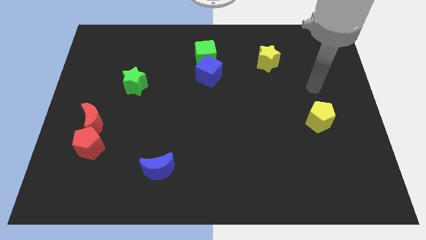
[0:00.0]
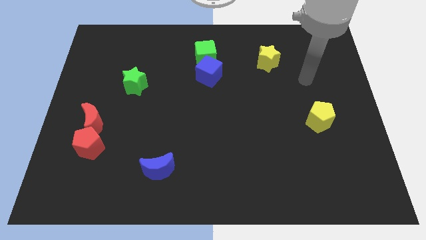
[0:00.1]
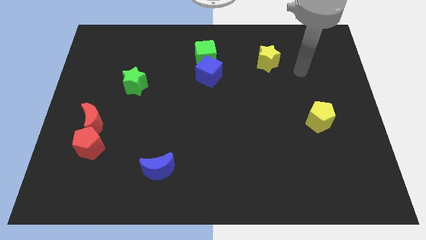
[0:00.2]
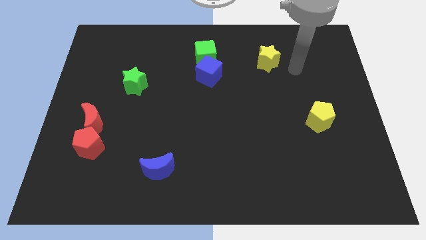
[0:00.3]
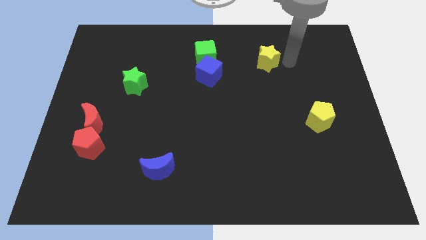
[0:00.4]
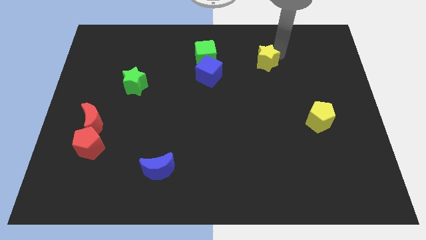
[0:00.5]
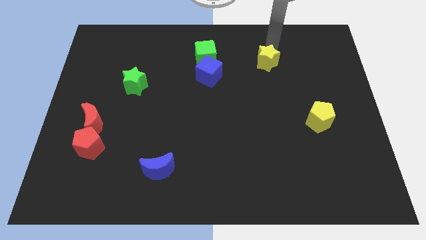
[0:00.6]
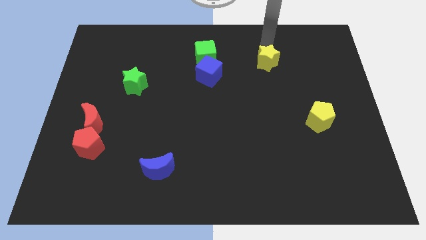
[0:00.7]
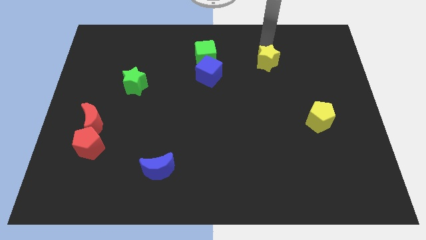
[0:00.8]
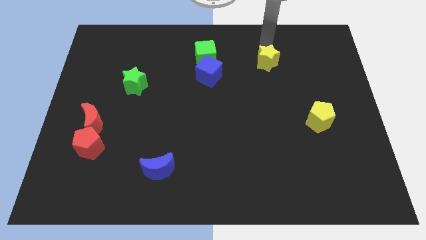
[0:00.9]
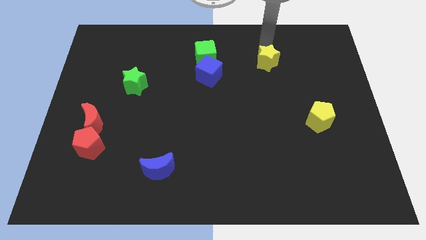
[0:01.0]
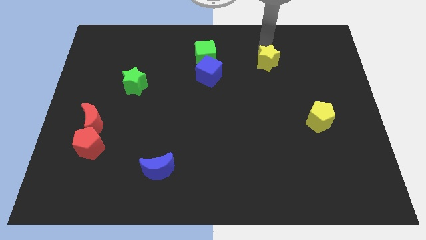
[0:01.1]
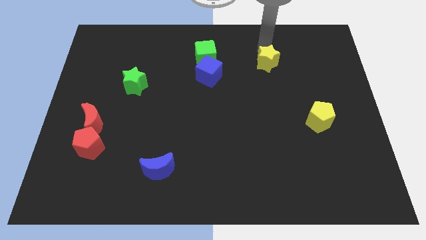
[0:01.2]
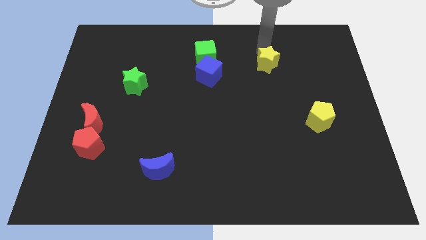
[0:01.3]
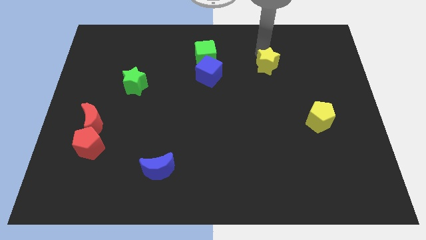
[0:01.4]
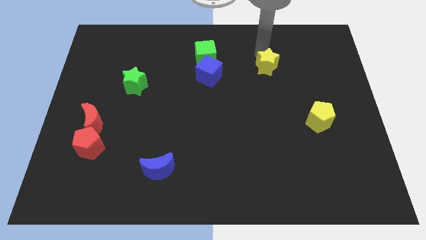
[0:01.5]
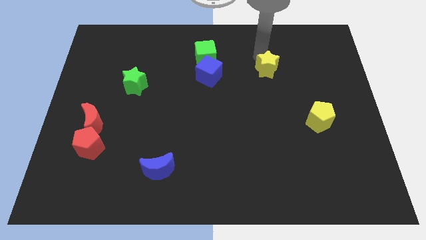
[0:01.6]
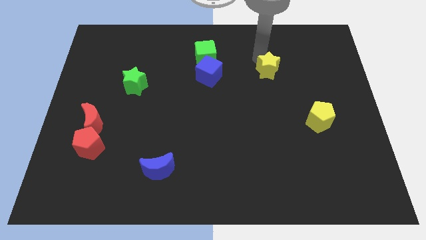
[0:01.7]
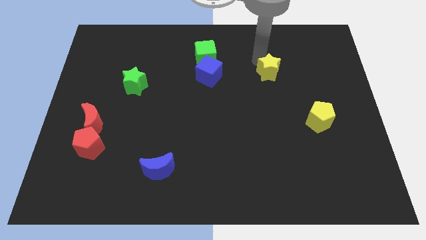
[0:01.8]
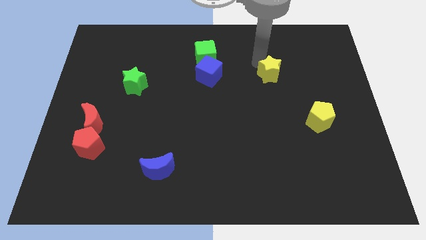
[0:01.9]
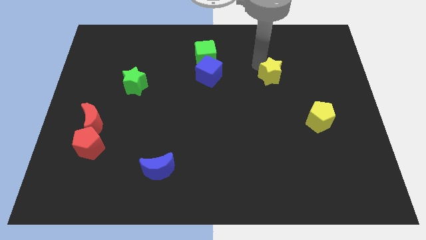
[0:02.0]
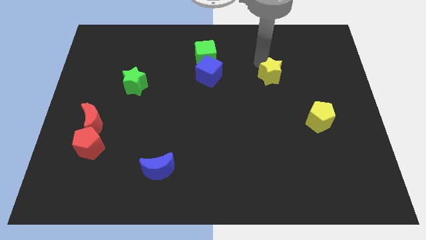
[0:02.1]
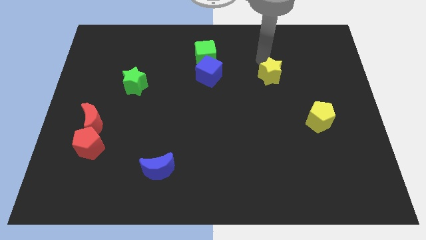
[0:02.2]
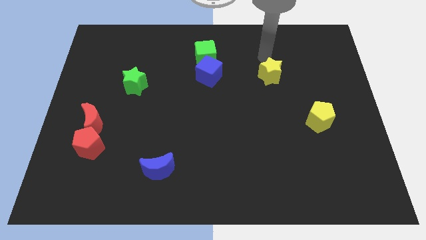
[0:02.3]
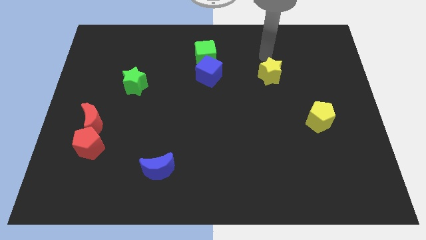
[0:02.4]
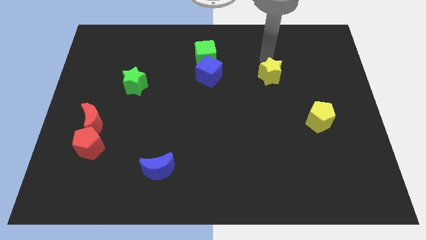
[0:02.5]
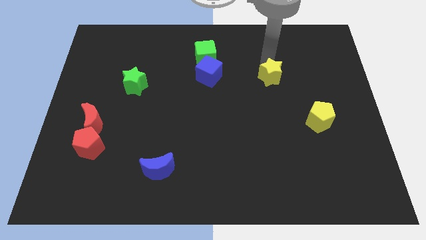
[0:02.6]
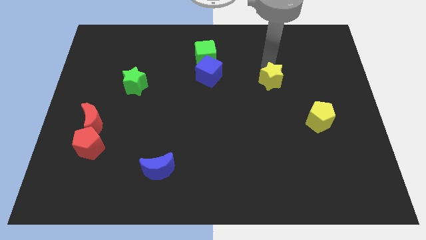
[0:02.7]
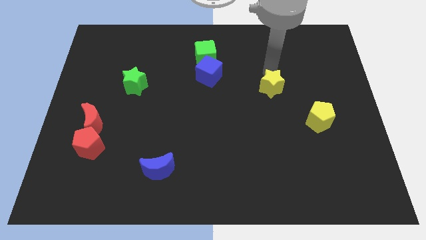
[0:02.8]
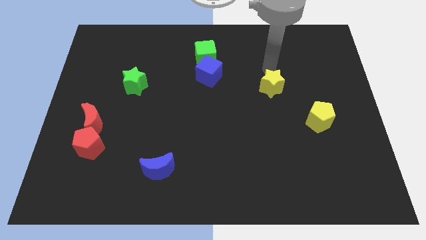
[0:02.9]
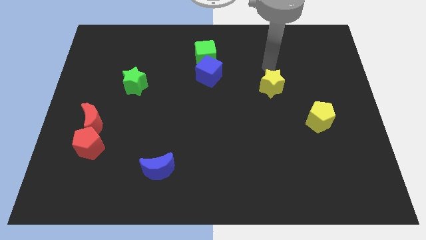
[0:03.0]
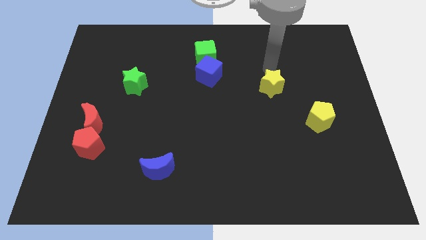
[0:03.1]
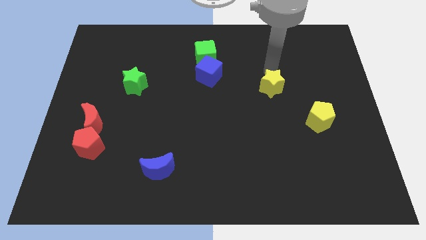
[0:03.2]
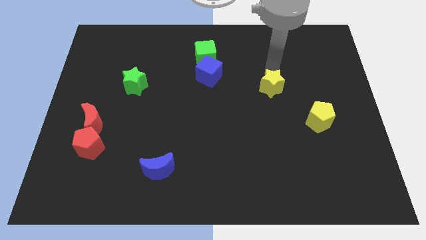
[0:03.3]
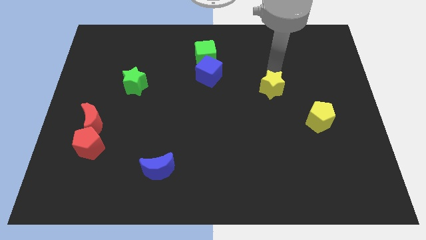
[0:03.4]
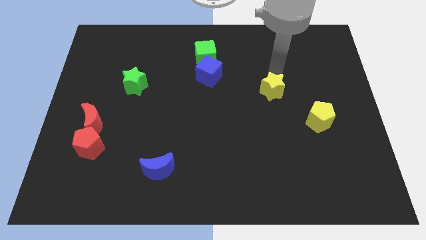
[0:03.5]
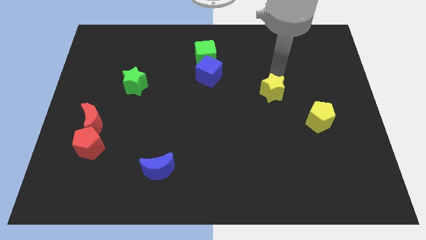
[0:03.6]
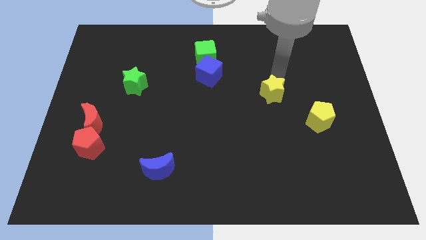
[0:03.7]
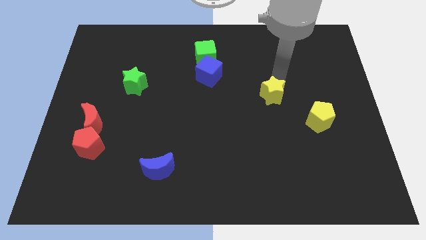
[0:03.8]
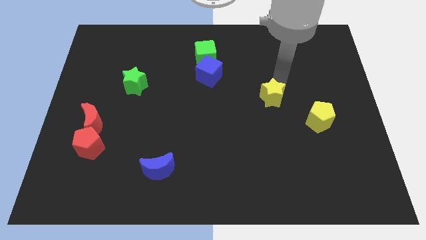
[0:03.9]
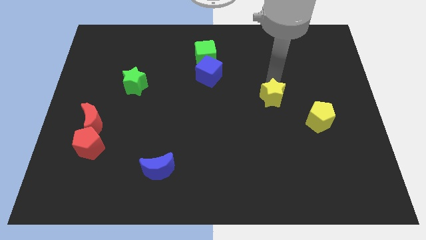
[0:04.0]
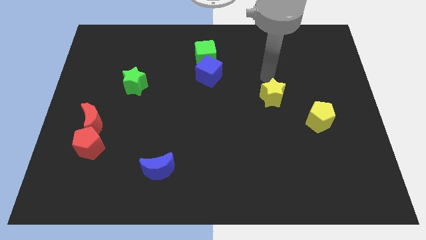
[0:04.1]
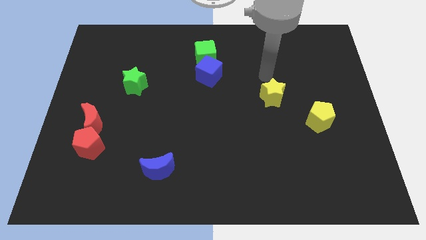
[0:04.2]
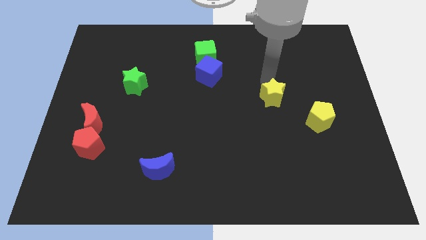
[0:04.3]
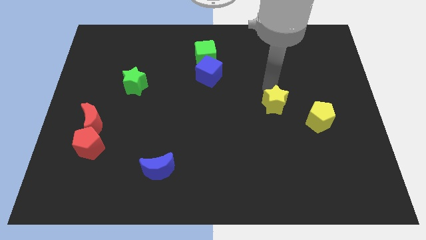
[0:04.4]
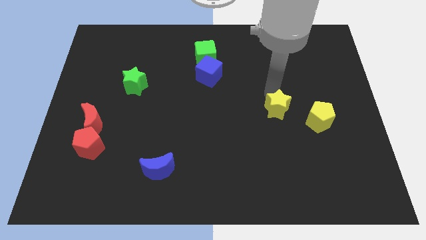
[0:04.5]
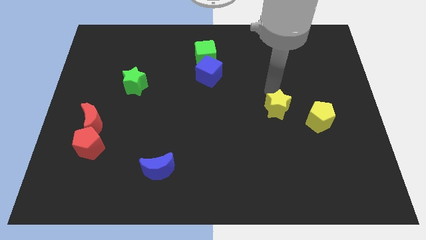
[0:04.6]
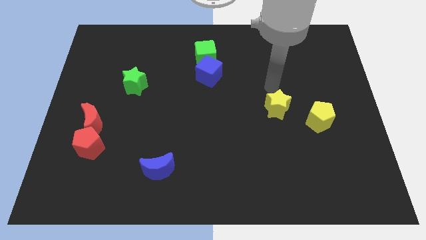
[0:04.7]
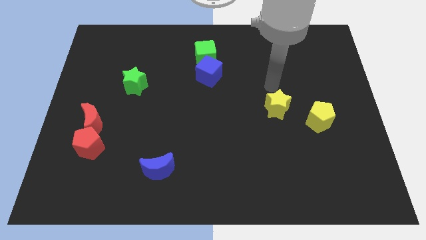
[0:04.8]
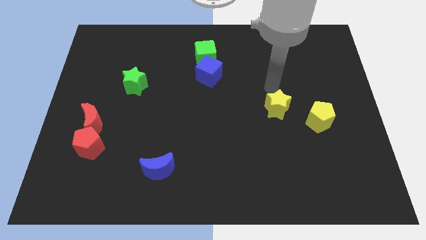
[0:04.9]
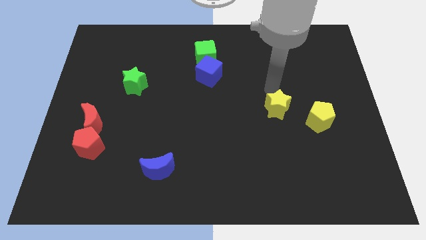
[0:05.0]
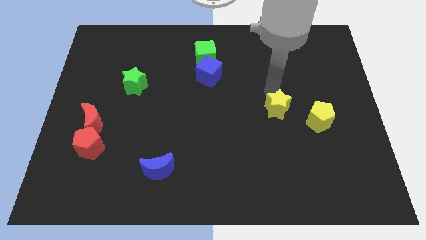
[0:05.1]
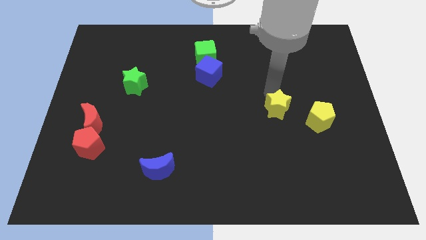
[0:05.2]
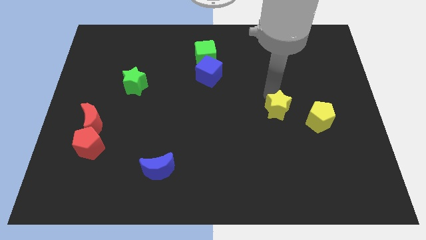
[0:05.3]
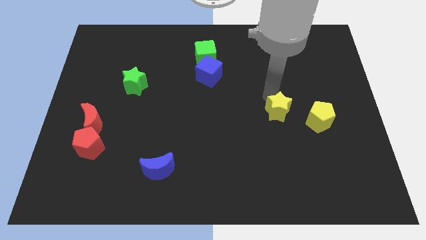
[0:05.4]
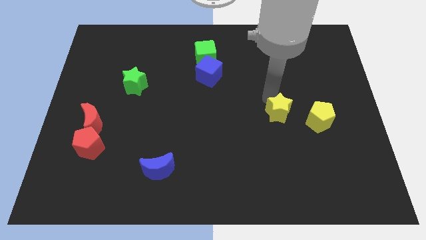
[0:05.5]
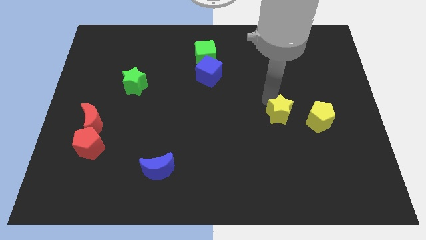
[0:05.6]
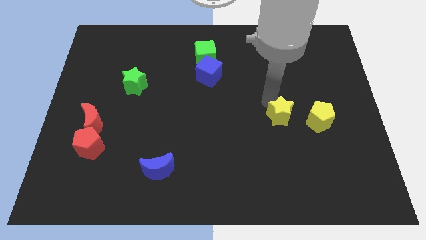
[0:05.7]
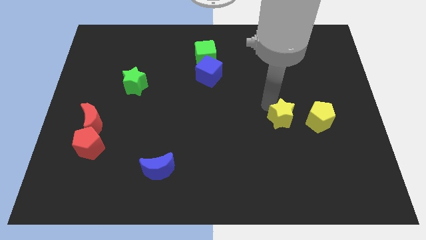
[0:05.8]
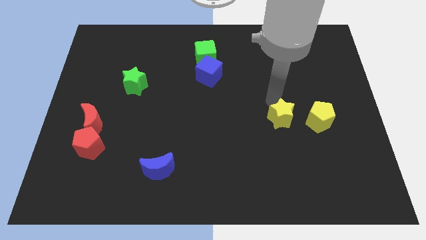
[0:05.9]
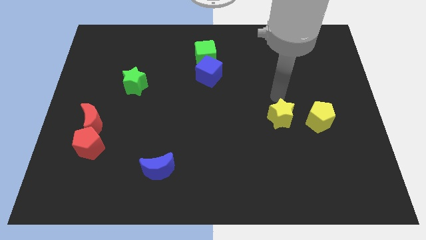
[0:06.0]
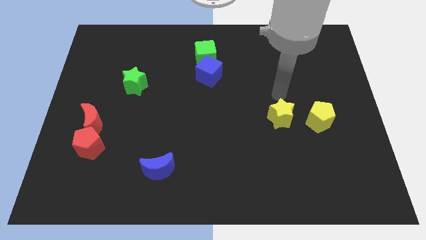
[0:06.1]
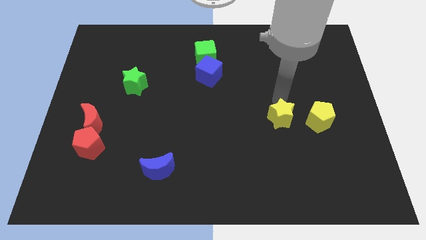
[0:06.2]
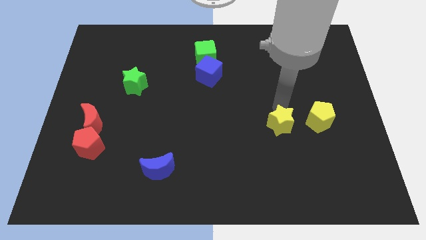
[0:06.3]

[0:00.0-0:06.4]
push the yellow star downwards

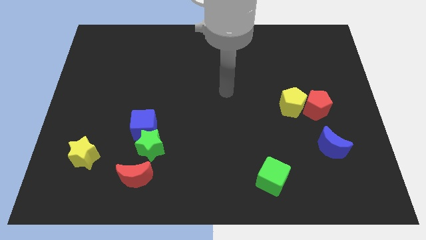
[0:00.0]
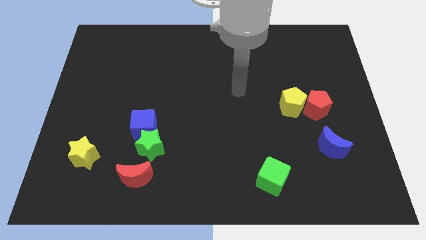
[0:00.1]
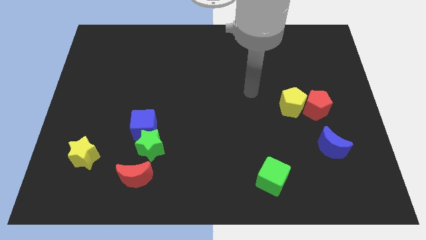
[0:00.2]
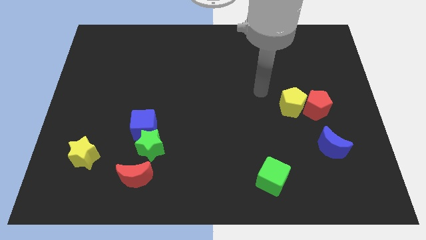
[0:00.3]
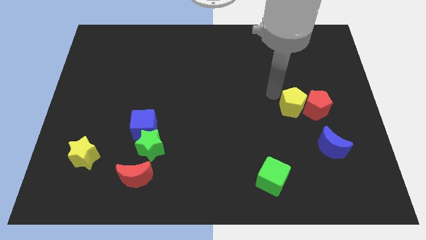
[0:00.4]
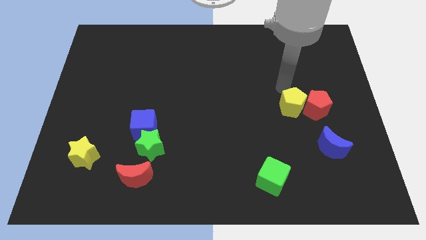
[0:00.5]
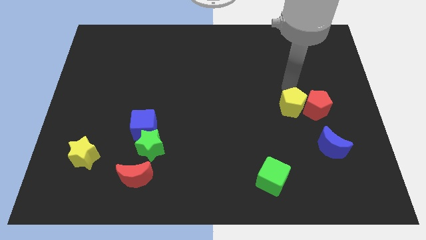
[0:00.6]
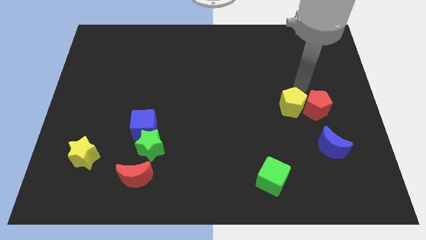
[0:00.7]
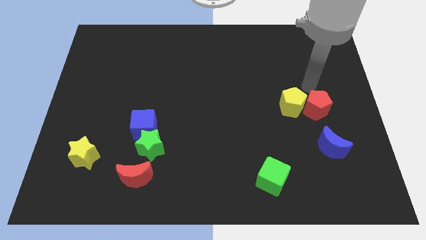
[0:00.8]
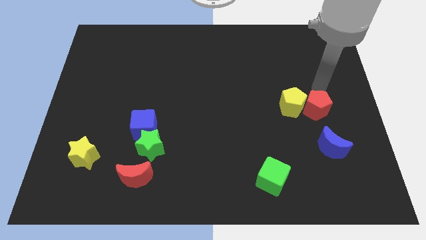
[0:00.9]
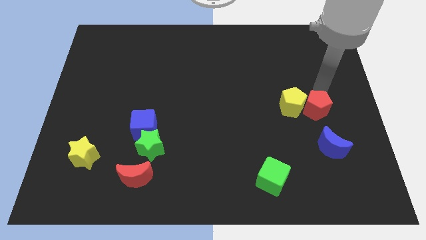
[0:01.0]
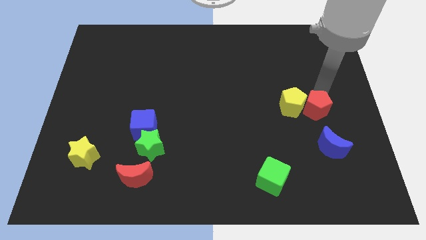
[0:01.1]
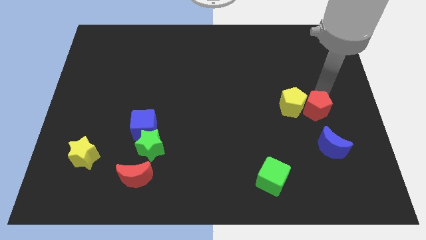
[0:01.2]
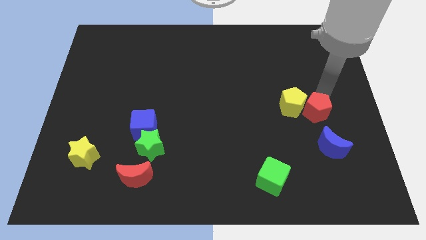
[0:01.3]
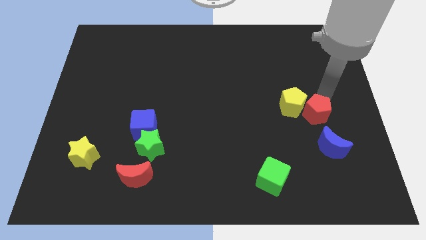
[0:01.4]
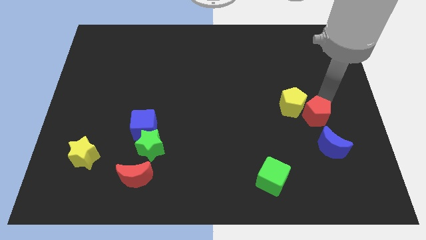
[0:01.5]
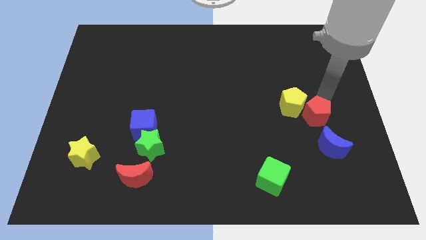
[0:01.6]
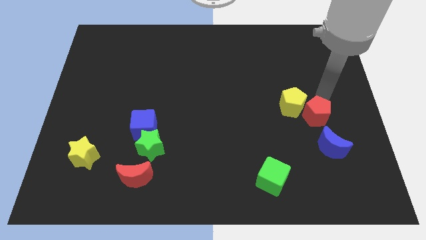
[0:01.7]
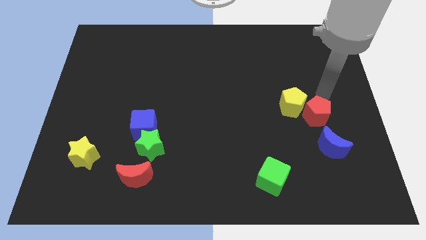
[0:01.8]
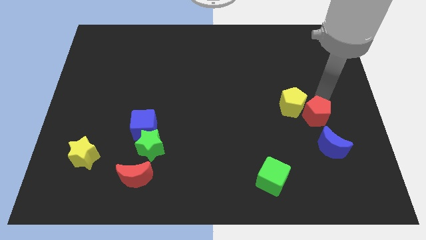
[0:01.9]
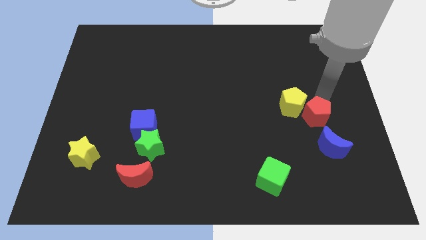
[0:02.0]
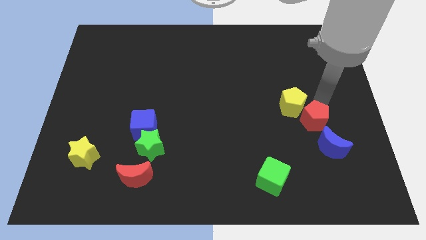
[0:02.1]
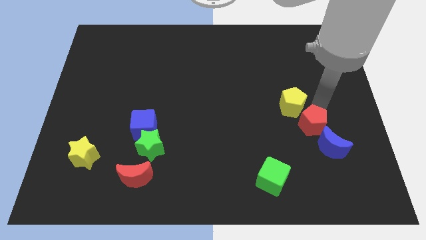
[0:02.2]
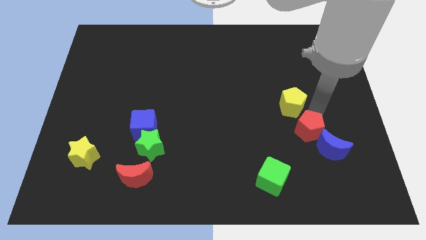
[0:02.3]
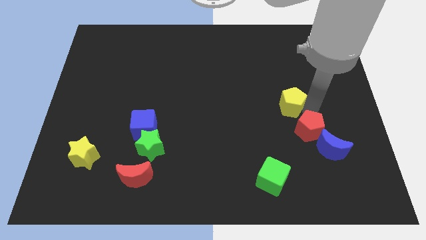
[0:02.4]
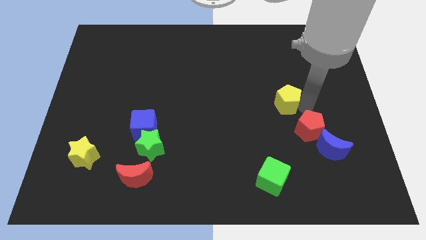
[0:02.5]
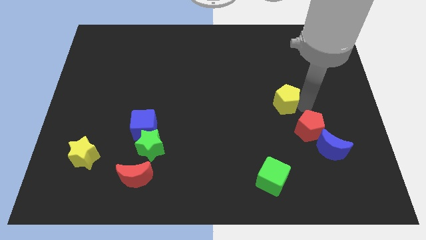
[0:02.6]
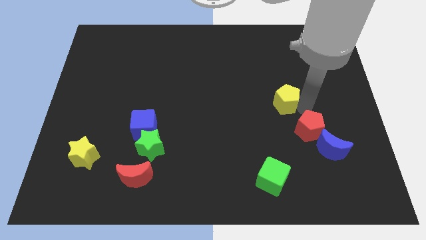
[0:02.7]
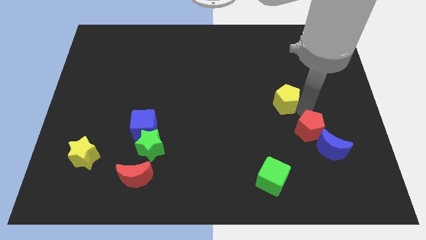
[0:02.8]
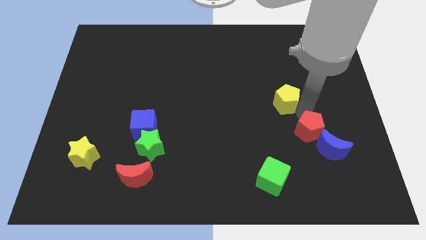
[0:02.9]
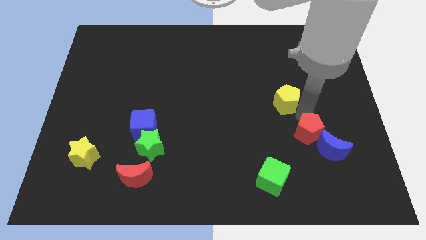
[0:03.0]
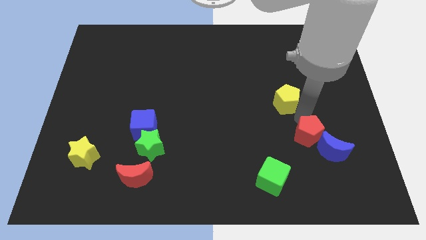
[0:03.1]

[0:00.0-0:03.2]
slide the red pentagon a little down
